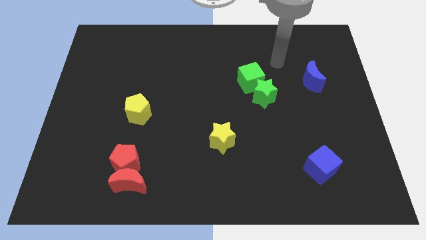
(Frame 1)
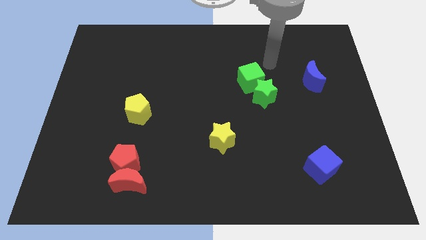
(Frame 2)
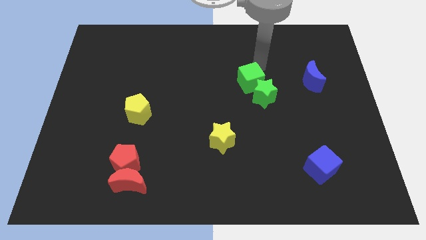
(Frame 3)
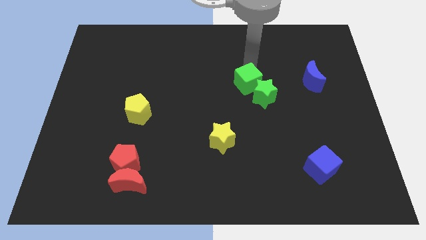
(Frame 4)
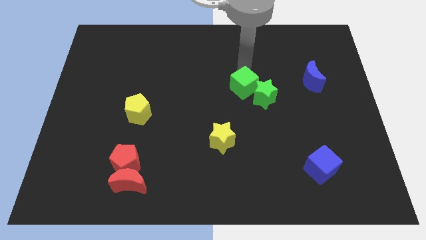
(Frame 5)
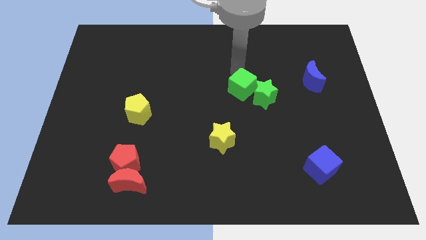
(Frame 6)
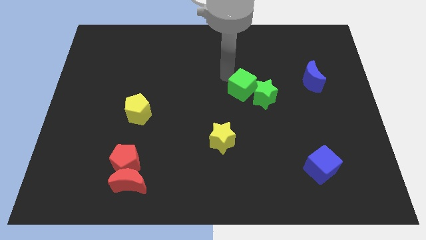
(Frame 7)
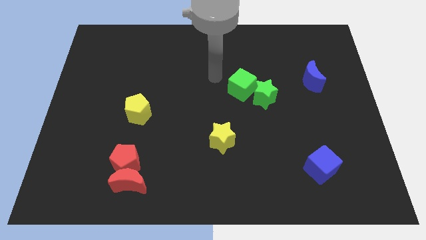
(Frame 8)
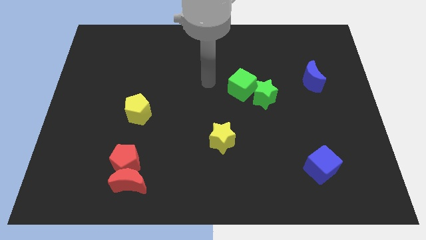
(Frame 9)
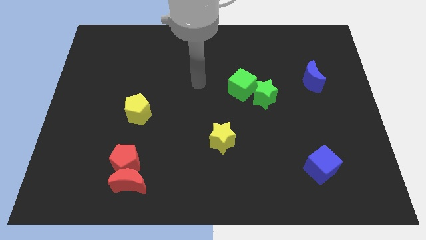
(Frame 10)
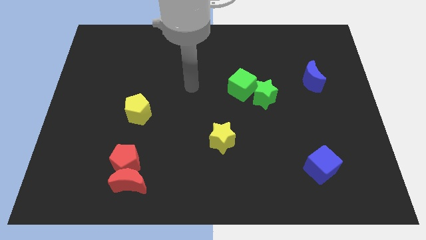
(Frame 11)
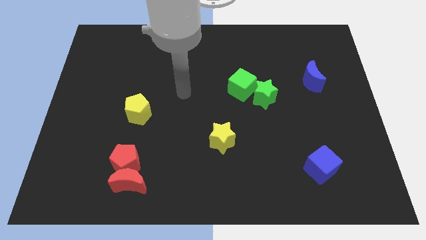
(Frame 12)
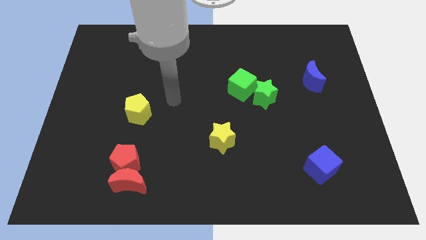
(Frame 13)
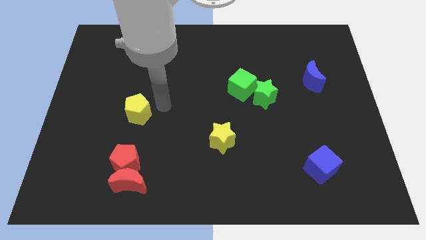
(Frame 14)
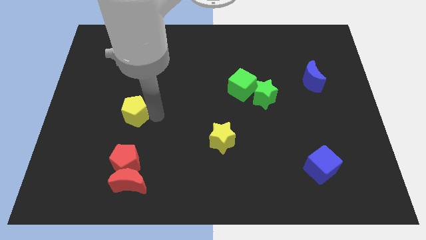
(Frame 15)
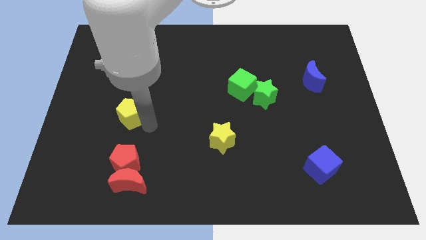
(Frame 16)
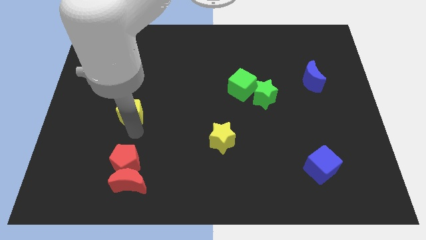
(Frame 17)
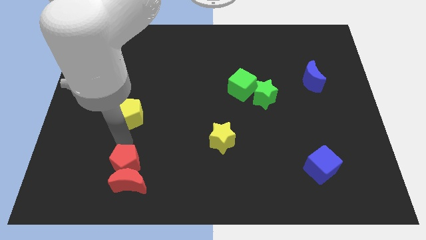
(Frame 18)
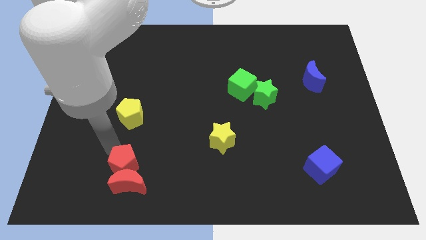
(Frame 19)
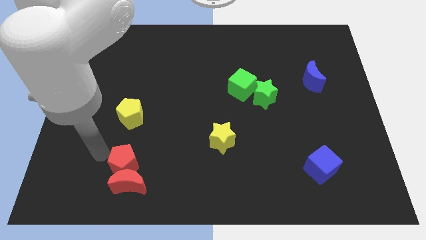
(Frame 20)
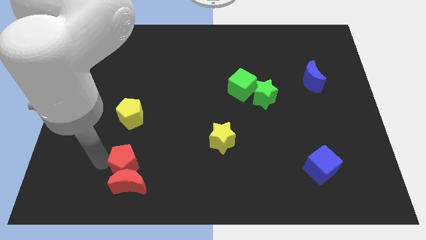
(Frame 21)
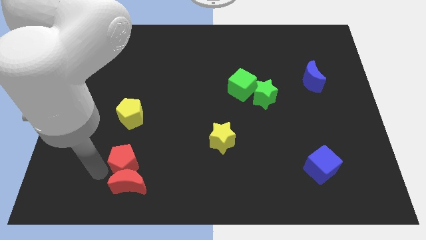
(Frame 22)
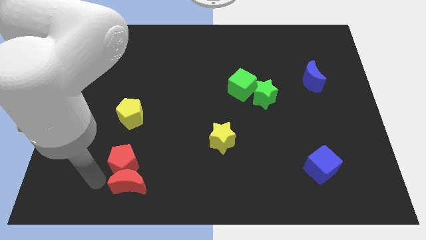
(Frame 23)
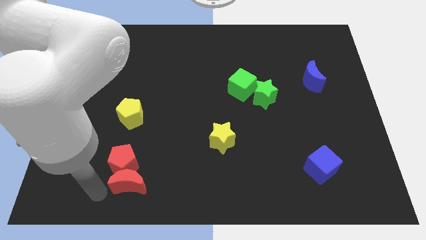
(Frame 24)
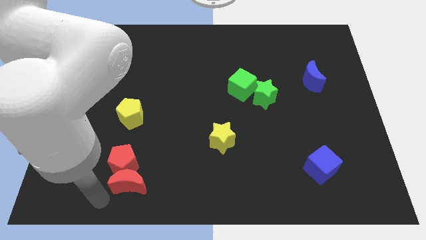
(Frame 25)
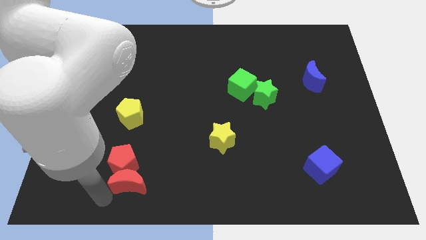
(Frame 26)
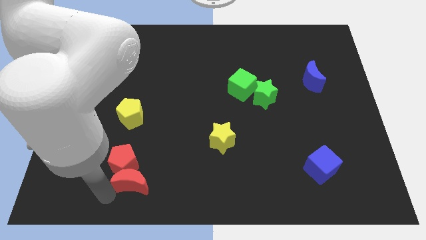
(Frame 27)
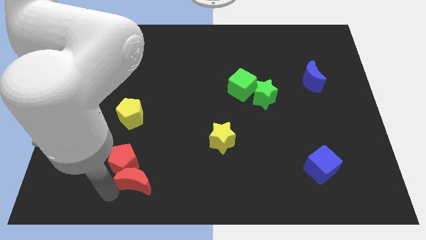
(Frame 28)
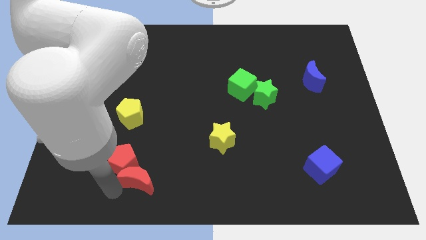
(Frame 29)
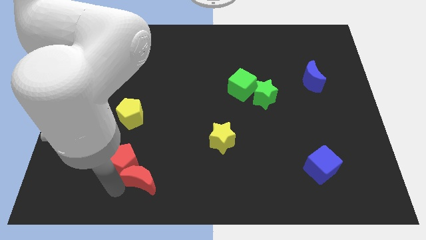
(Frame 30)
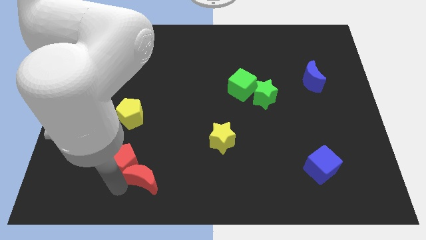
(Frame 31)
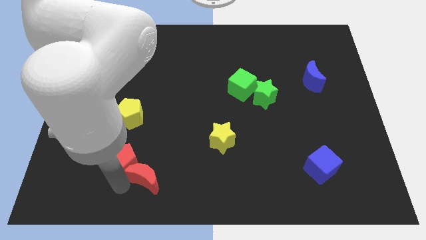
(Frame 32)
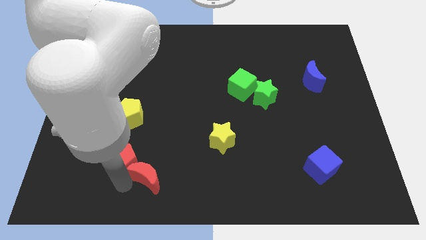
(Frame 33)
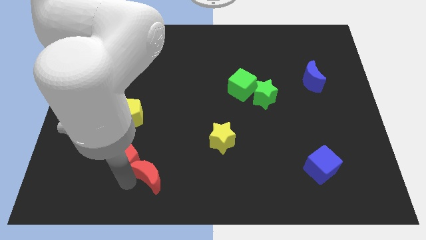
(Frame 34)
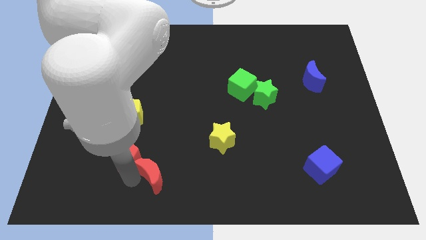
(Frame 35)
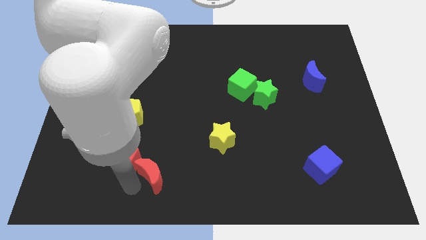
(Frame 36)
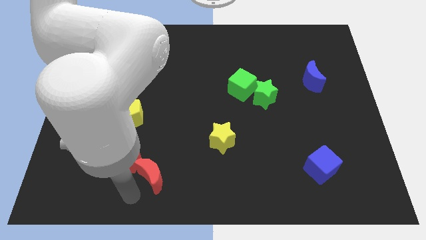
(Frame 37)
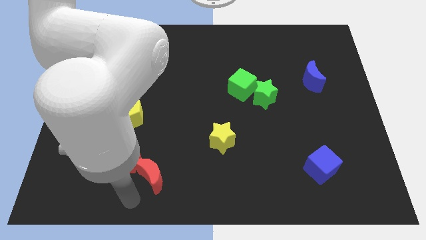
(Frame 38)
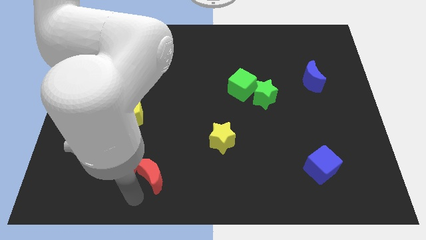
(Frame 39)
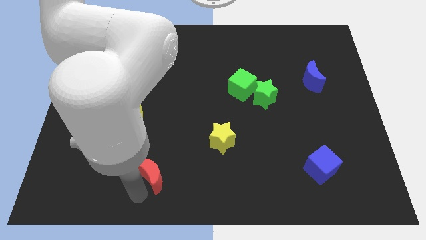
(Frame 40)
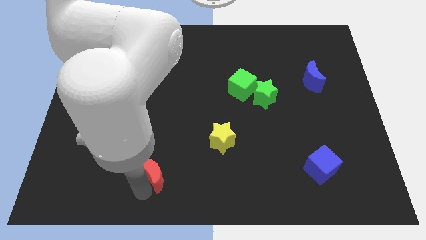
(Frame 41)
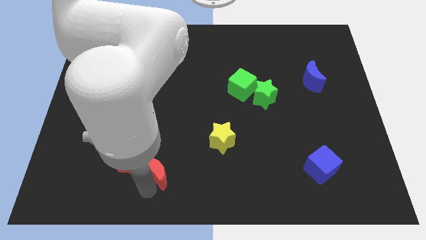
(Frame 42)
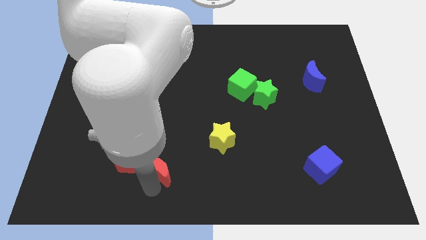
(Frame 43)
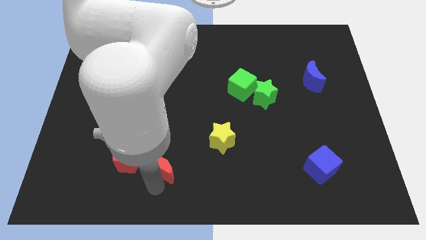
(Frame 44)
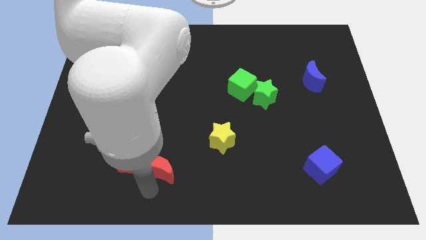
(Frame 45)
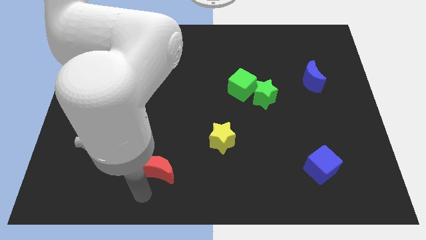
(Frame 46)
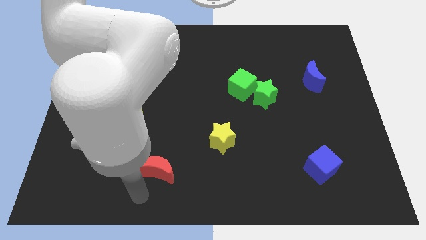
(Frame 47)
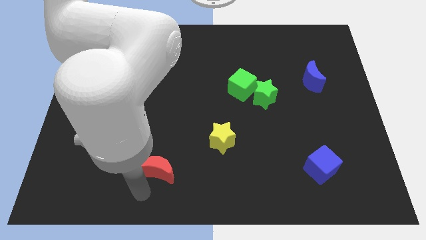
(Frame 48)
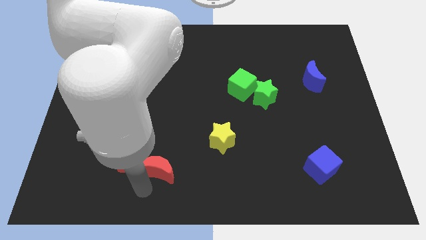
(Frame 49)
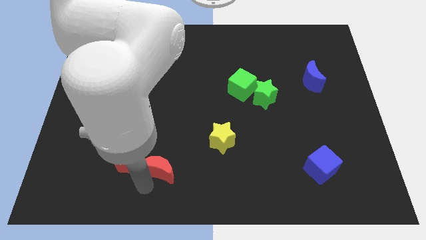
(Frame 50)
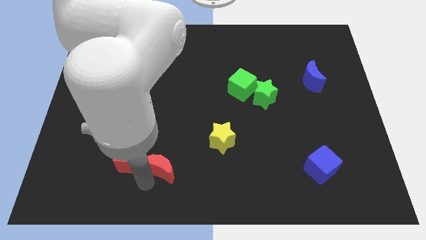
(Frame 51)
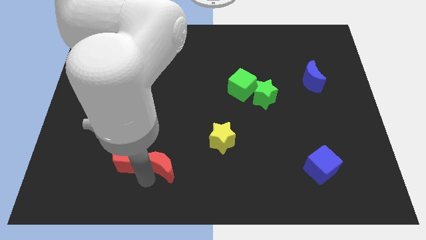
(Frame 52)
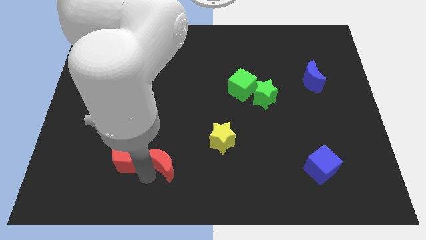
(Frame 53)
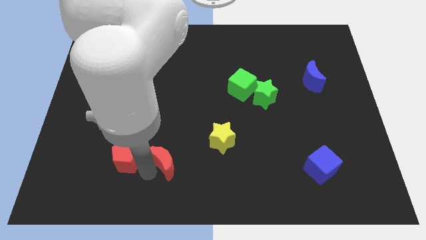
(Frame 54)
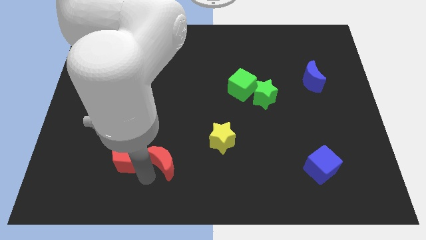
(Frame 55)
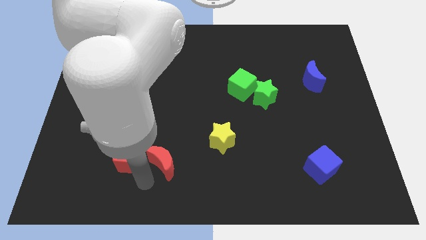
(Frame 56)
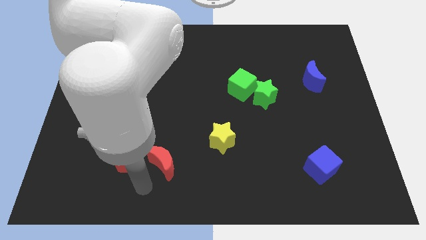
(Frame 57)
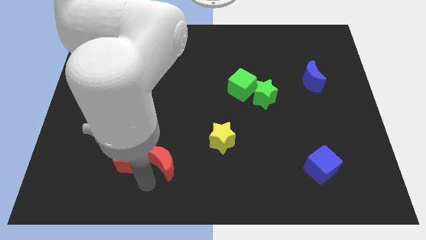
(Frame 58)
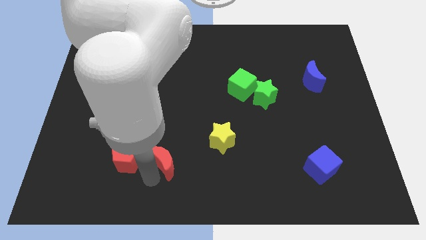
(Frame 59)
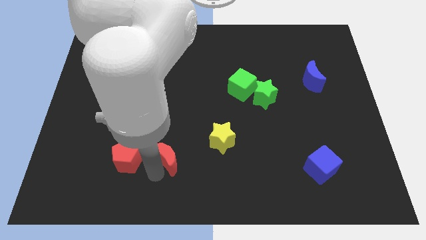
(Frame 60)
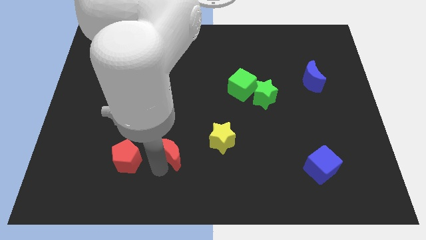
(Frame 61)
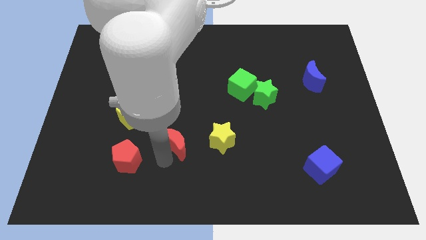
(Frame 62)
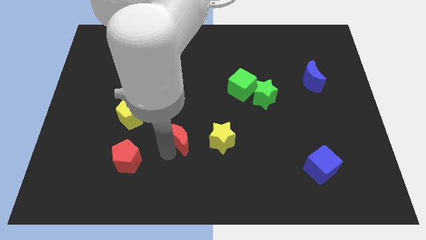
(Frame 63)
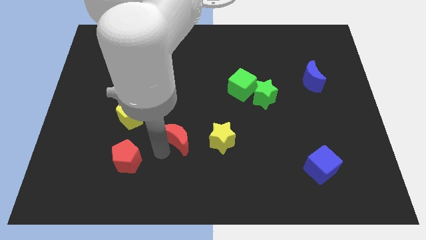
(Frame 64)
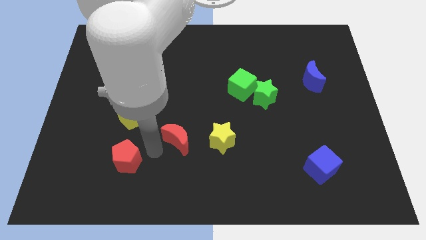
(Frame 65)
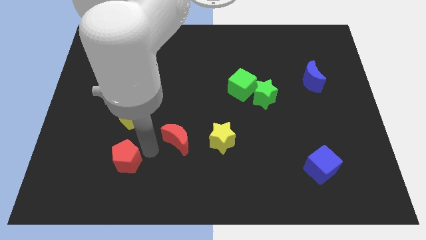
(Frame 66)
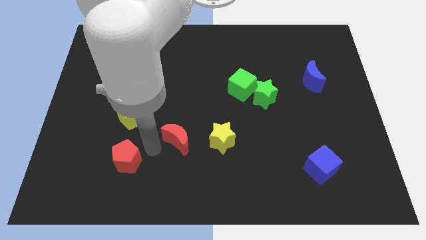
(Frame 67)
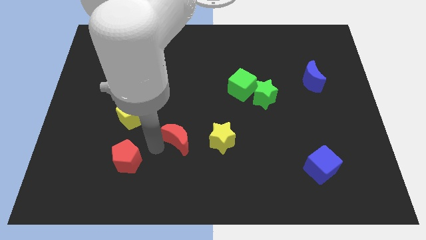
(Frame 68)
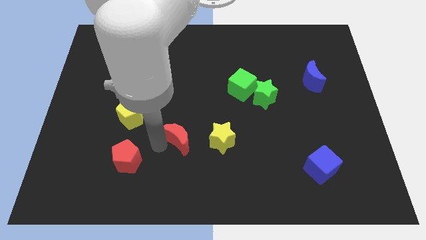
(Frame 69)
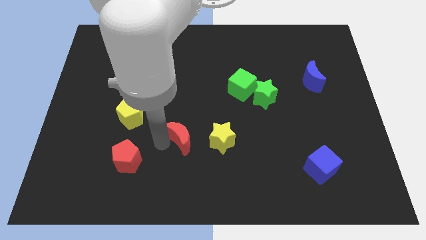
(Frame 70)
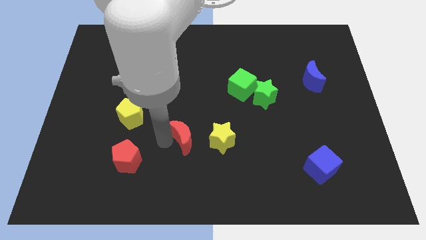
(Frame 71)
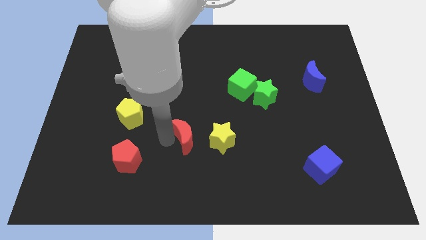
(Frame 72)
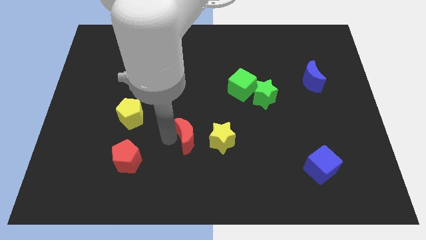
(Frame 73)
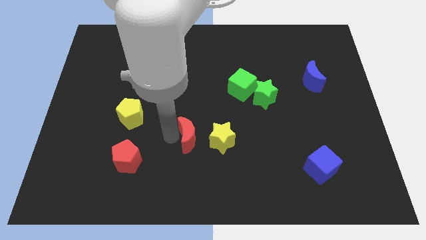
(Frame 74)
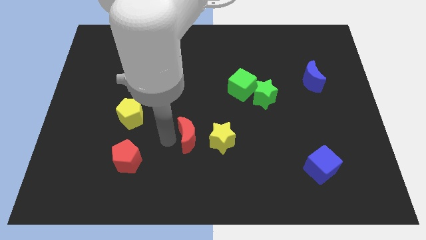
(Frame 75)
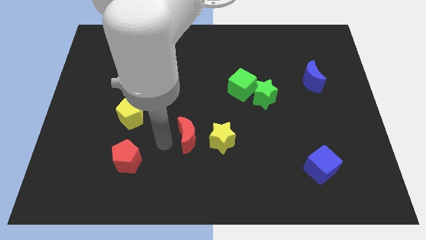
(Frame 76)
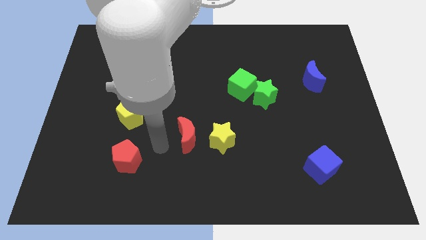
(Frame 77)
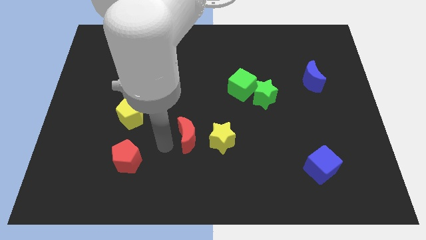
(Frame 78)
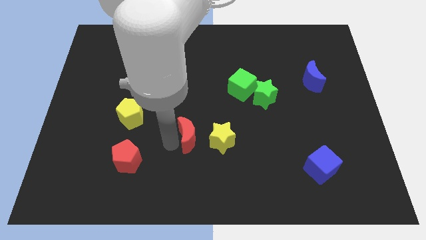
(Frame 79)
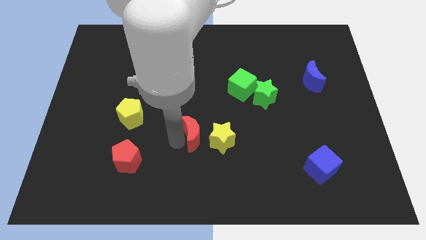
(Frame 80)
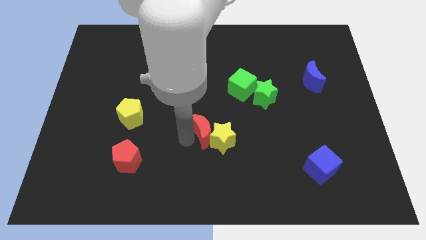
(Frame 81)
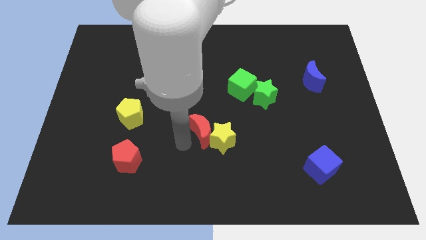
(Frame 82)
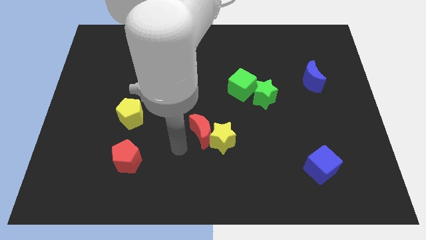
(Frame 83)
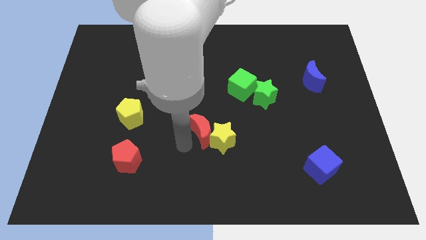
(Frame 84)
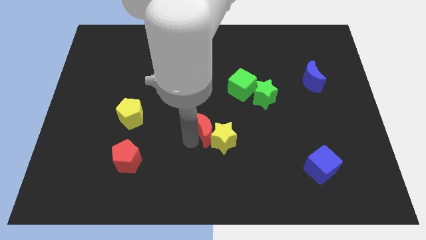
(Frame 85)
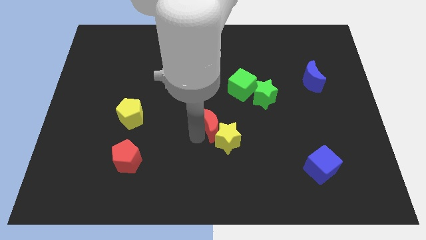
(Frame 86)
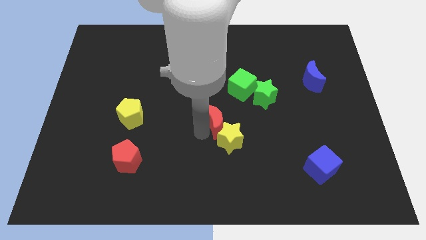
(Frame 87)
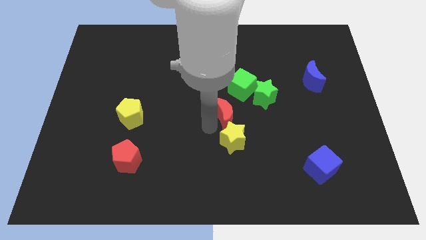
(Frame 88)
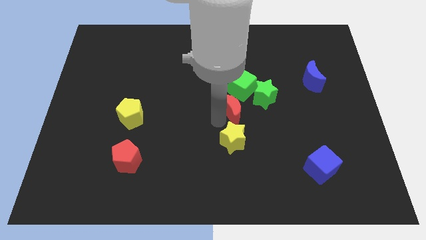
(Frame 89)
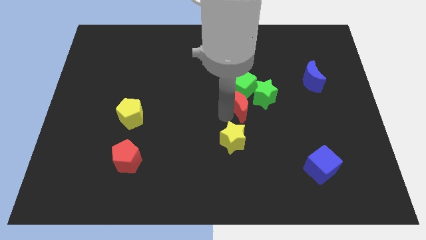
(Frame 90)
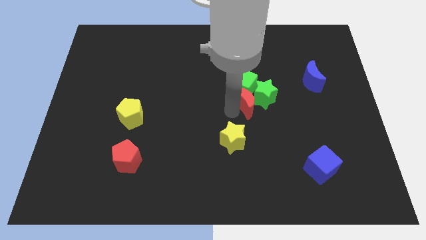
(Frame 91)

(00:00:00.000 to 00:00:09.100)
move the red moon next to the green star
